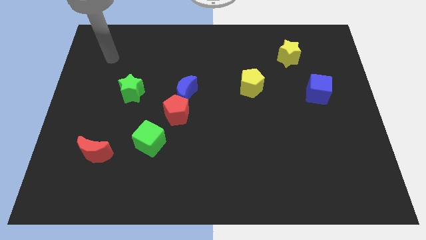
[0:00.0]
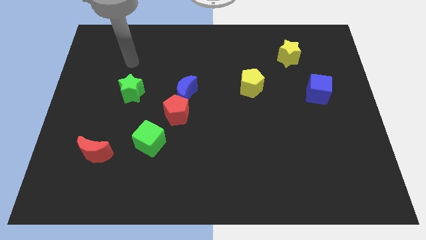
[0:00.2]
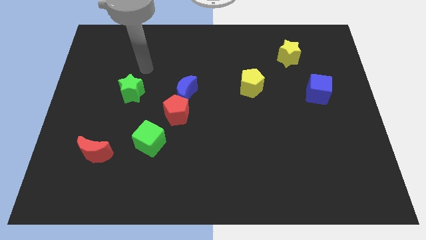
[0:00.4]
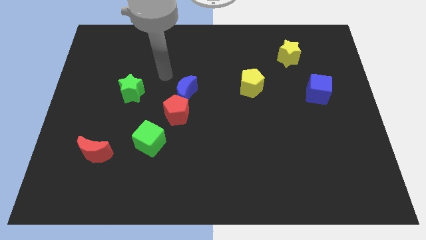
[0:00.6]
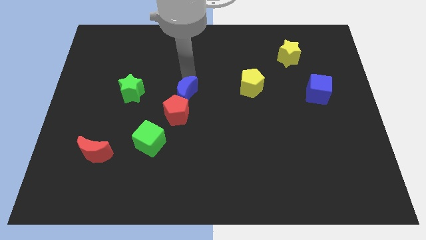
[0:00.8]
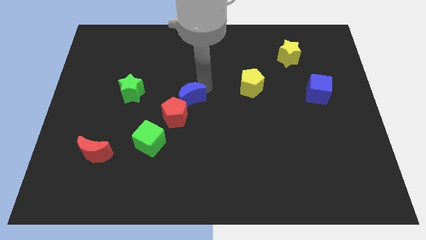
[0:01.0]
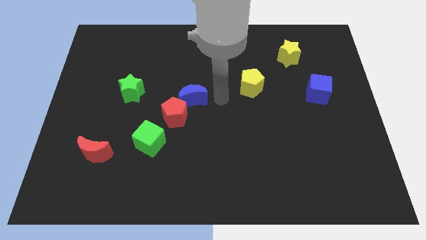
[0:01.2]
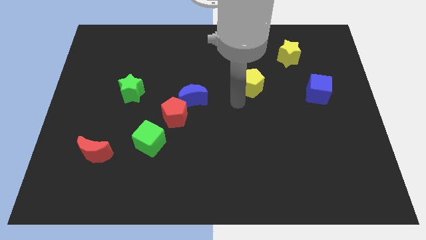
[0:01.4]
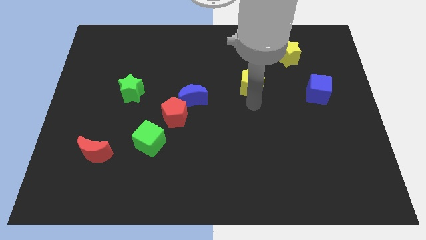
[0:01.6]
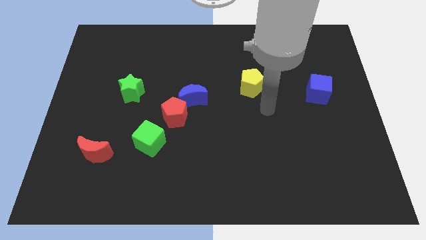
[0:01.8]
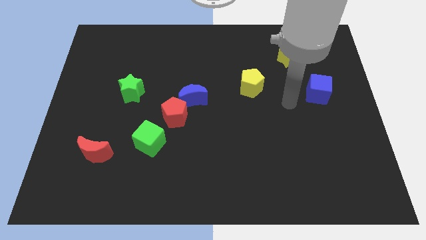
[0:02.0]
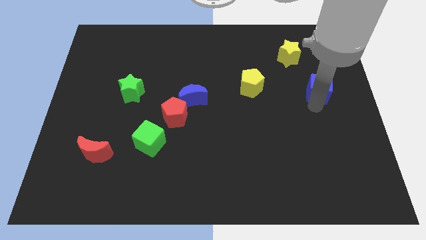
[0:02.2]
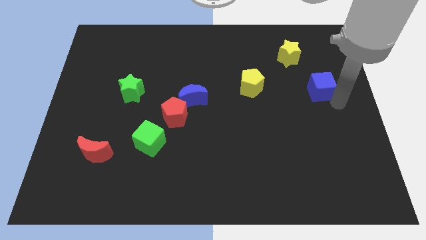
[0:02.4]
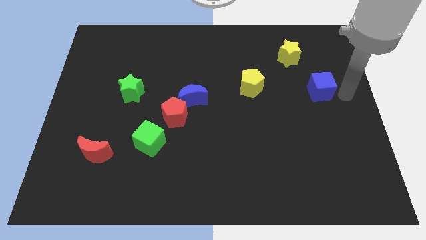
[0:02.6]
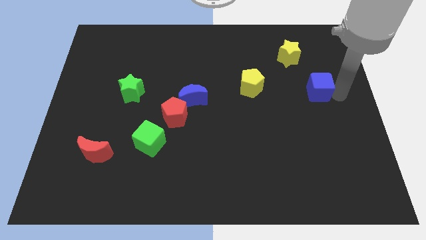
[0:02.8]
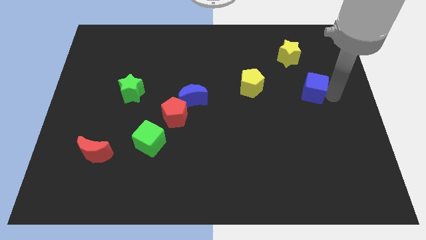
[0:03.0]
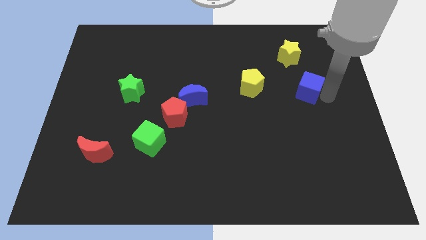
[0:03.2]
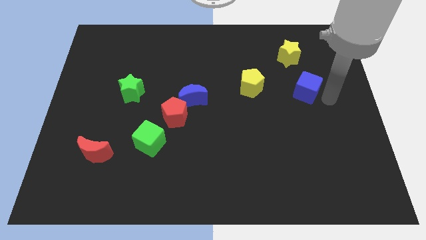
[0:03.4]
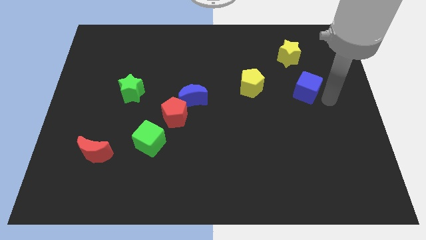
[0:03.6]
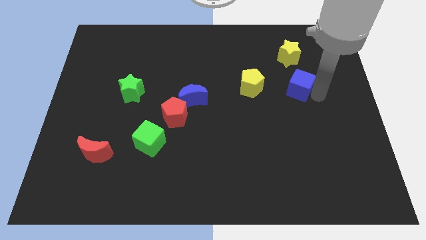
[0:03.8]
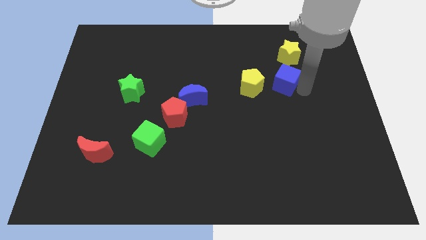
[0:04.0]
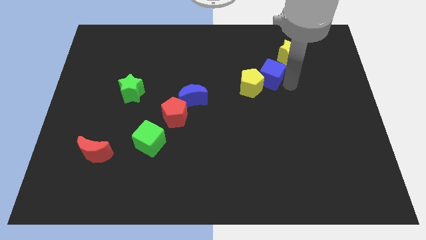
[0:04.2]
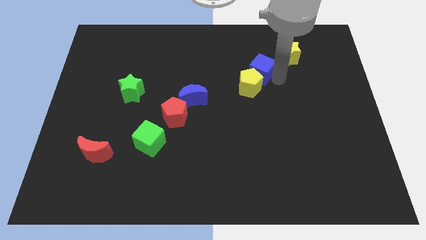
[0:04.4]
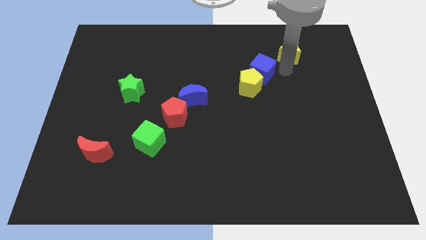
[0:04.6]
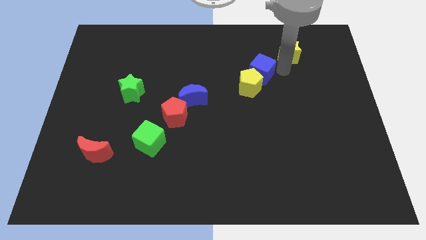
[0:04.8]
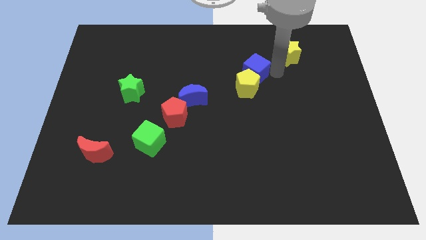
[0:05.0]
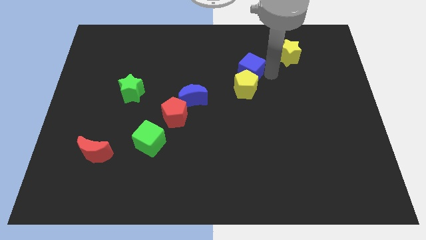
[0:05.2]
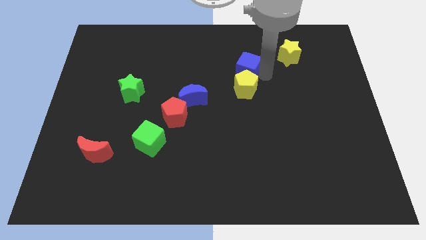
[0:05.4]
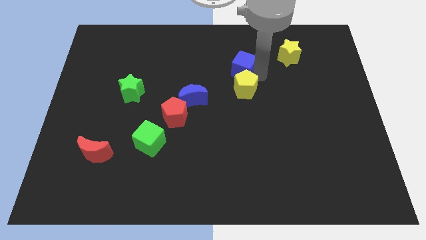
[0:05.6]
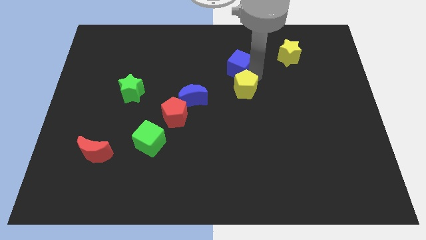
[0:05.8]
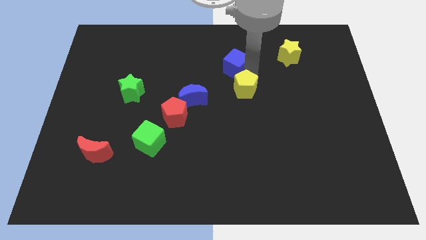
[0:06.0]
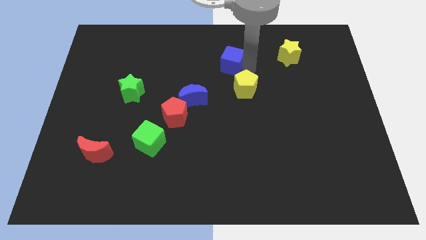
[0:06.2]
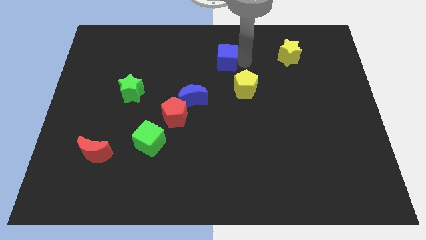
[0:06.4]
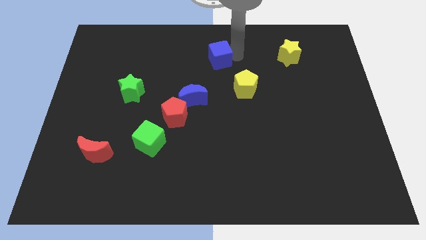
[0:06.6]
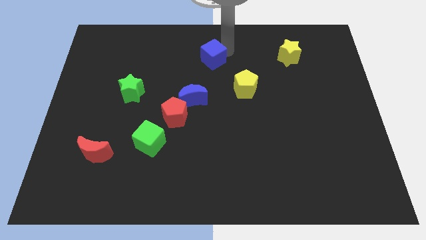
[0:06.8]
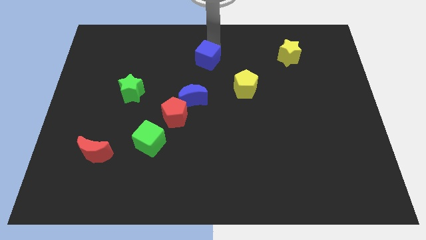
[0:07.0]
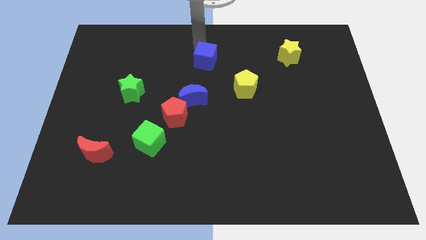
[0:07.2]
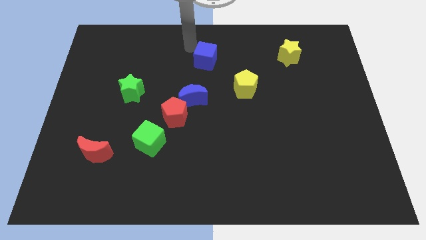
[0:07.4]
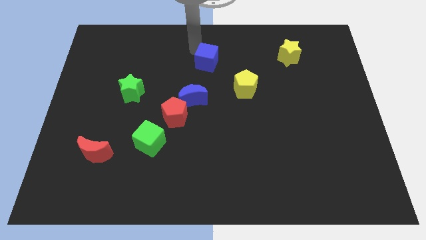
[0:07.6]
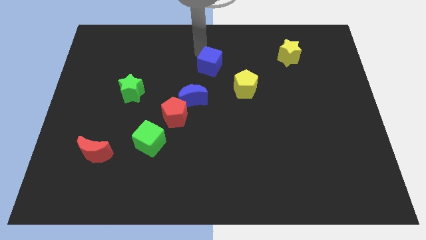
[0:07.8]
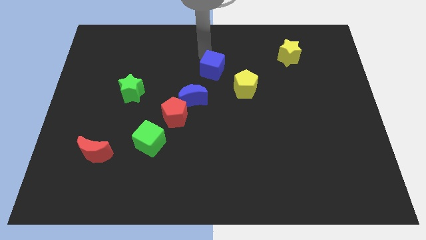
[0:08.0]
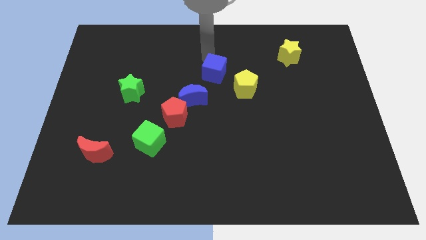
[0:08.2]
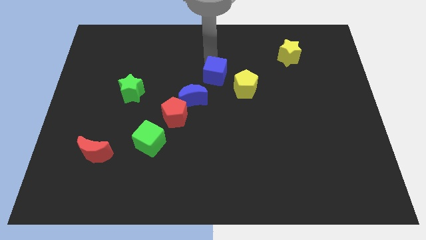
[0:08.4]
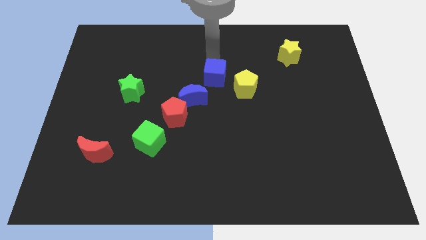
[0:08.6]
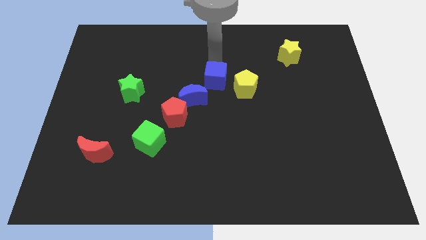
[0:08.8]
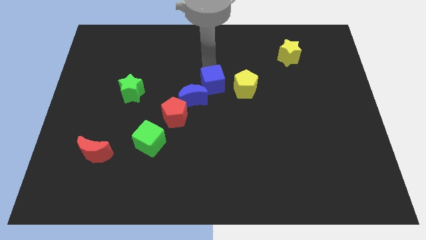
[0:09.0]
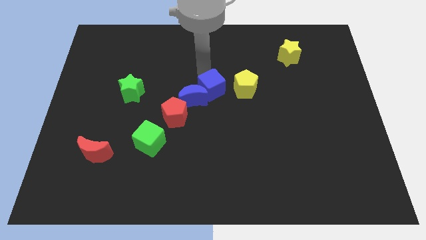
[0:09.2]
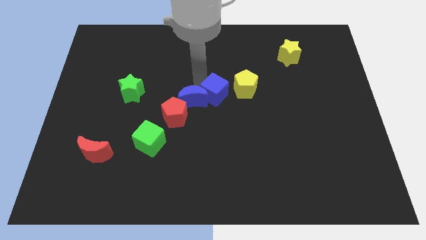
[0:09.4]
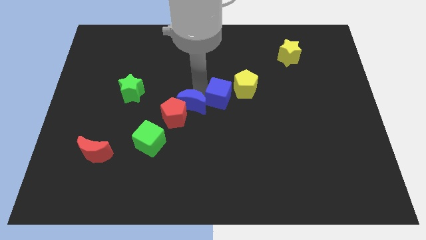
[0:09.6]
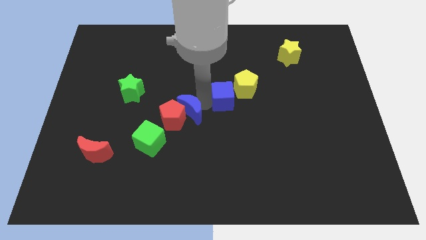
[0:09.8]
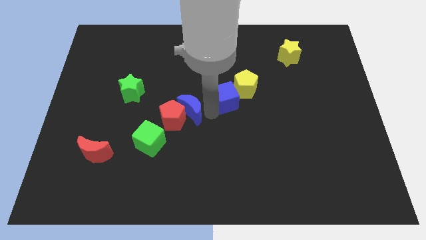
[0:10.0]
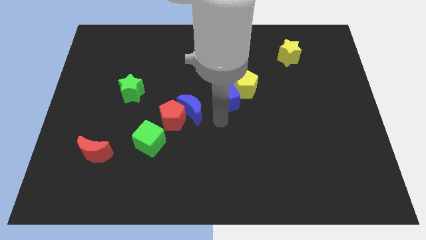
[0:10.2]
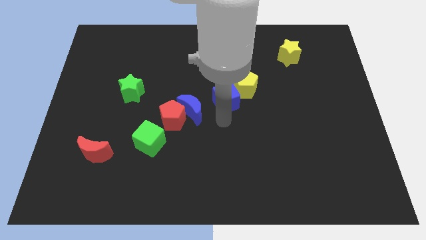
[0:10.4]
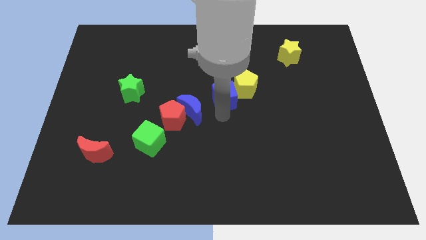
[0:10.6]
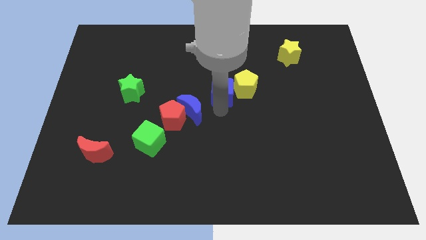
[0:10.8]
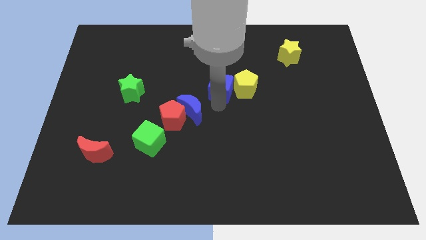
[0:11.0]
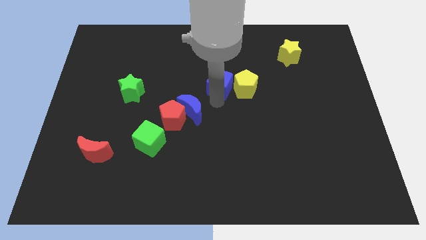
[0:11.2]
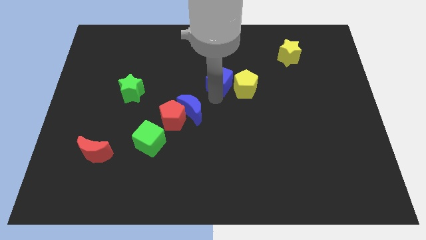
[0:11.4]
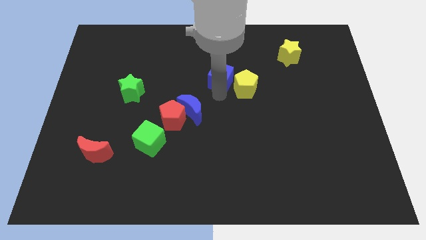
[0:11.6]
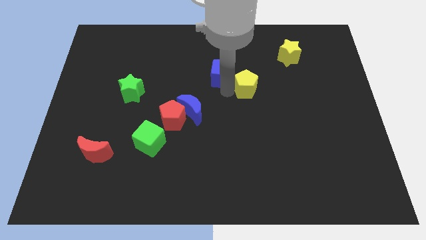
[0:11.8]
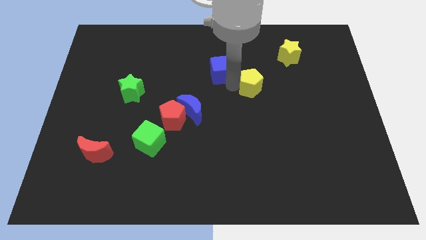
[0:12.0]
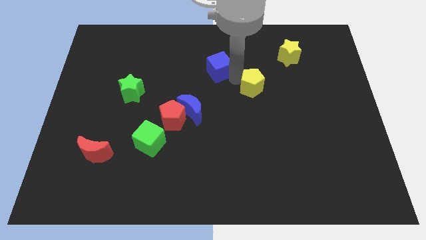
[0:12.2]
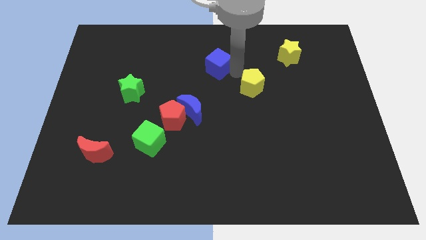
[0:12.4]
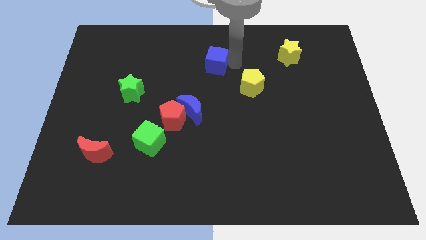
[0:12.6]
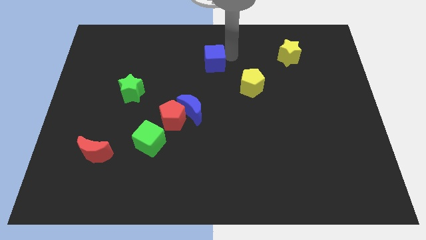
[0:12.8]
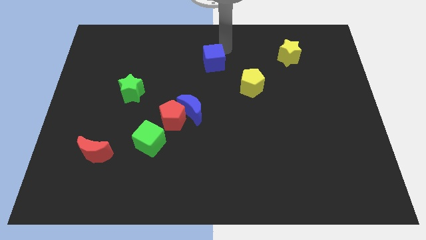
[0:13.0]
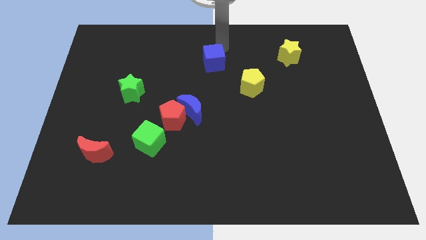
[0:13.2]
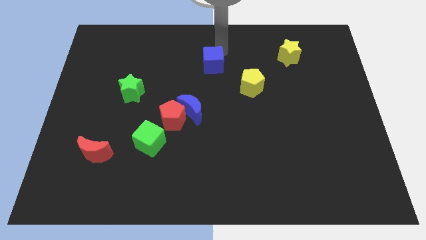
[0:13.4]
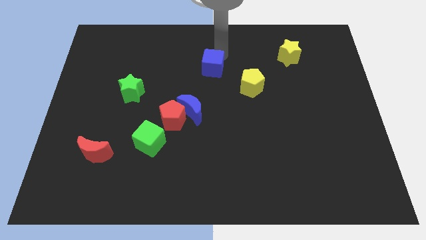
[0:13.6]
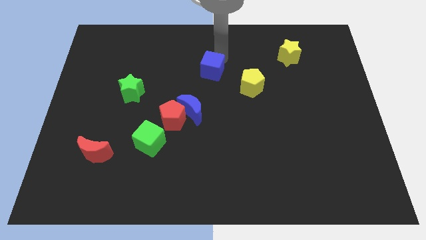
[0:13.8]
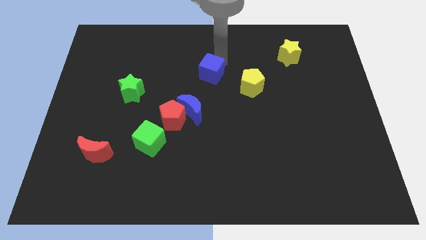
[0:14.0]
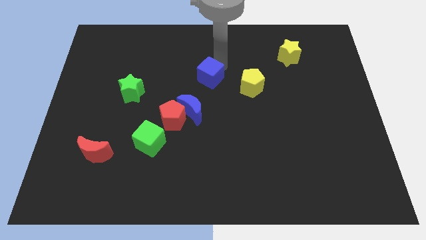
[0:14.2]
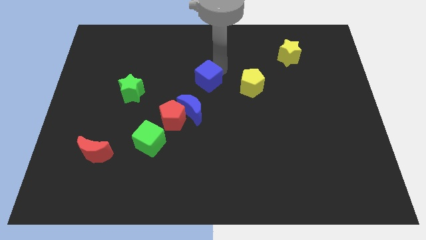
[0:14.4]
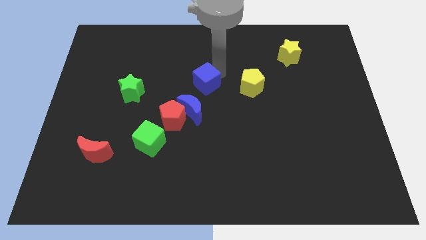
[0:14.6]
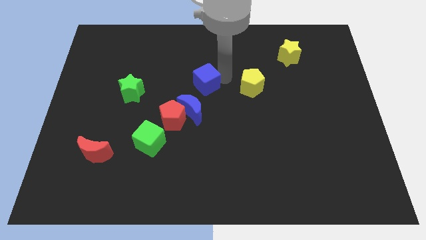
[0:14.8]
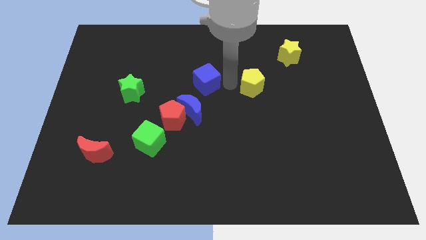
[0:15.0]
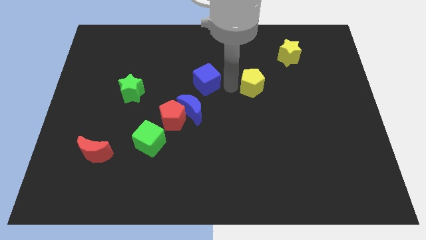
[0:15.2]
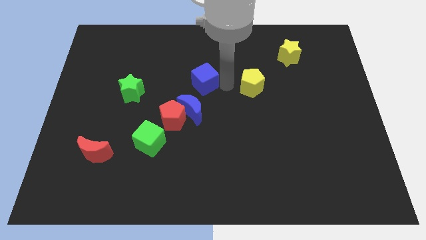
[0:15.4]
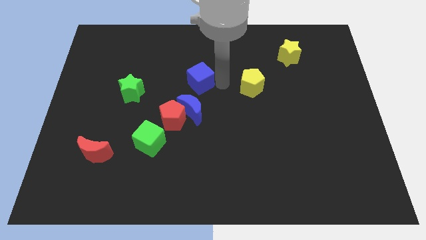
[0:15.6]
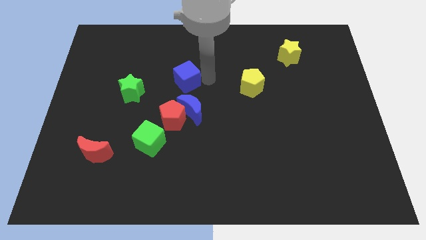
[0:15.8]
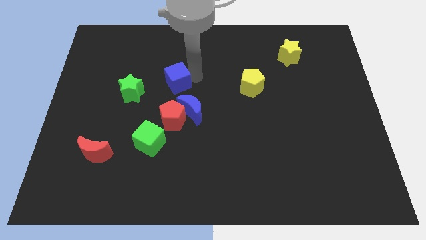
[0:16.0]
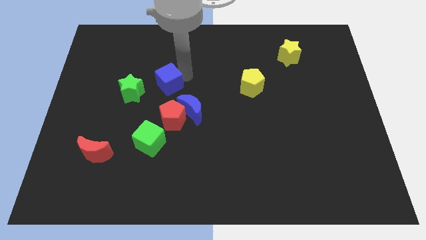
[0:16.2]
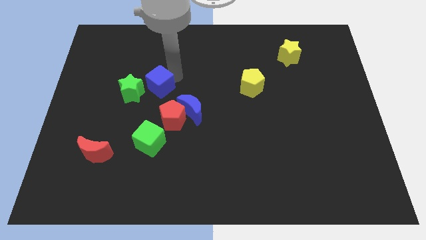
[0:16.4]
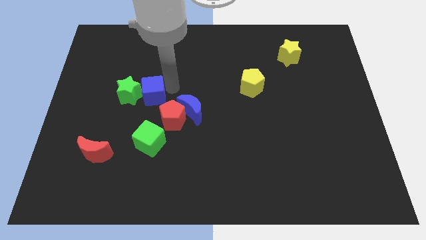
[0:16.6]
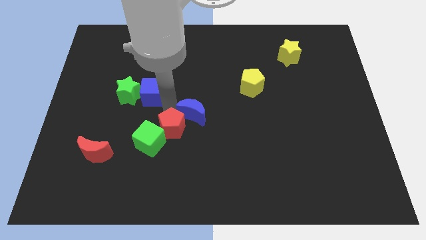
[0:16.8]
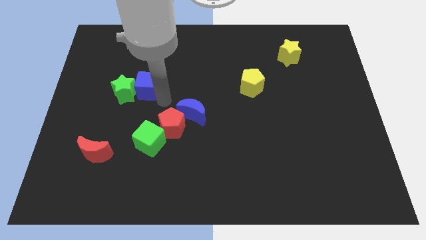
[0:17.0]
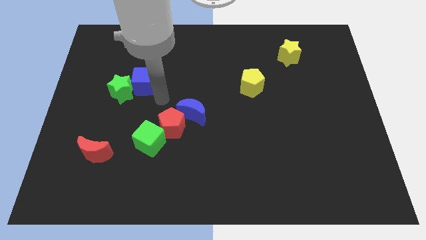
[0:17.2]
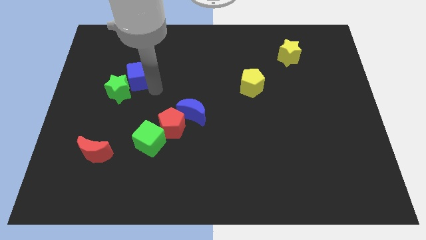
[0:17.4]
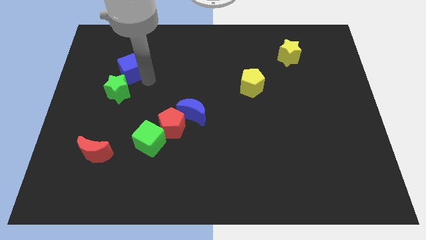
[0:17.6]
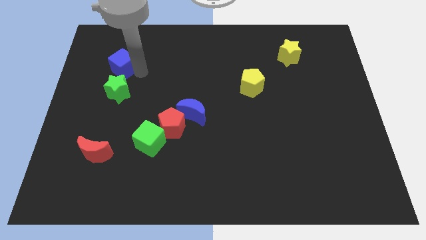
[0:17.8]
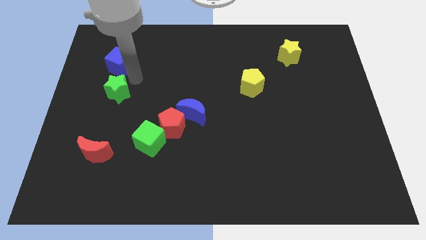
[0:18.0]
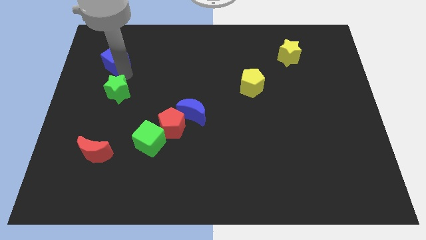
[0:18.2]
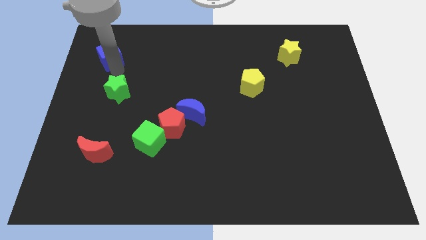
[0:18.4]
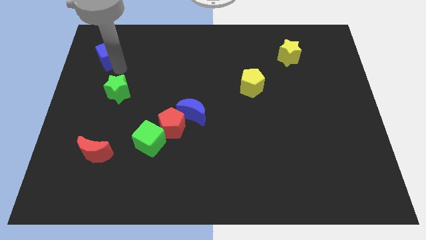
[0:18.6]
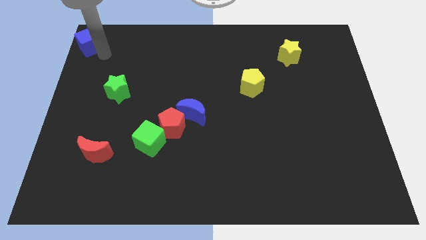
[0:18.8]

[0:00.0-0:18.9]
slide the blue cube to the top left of the board
